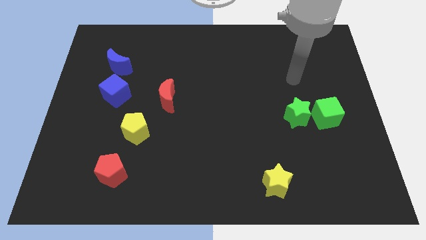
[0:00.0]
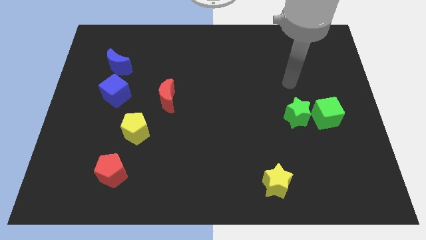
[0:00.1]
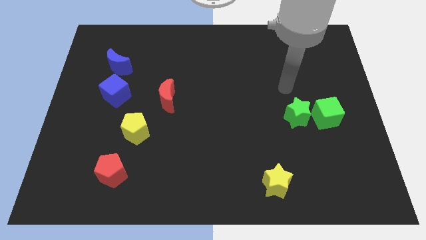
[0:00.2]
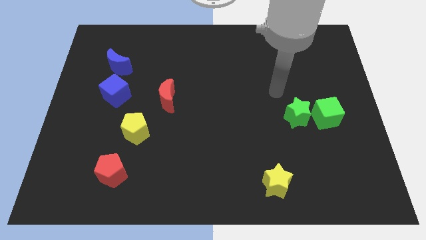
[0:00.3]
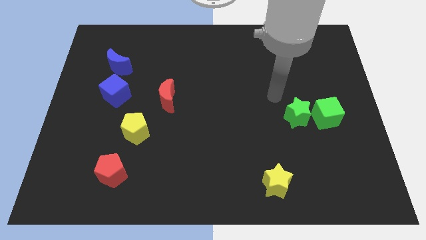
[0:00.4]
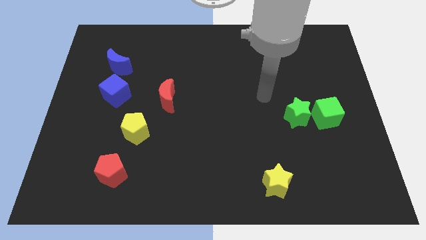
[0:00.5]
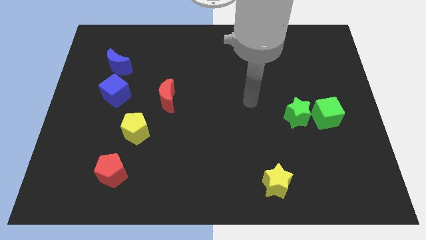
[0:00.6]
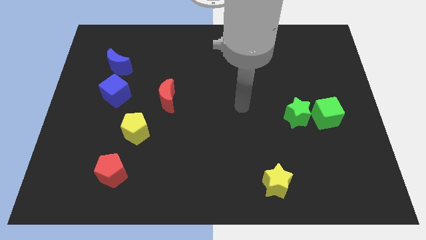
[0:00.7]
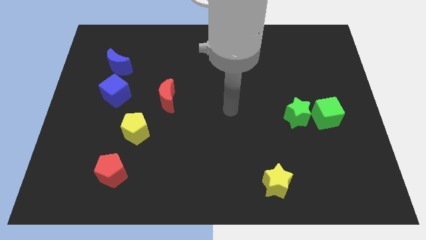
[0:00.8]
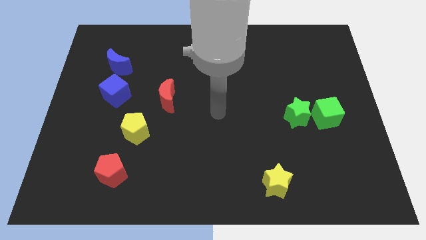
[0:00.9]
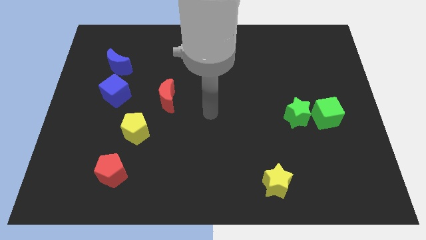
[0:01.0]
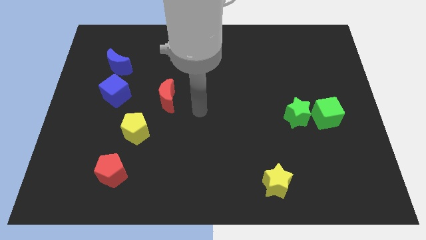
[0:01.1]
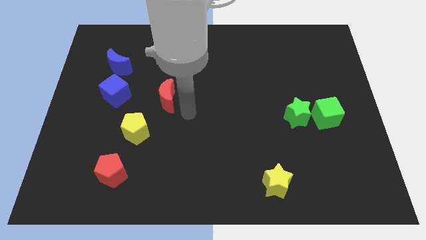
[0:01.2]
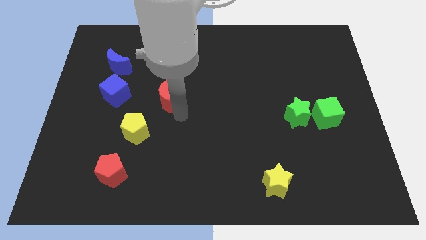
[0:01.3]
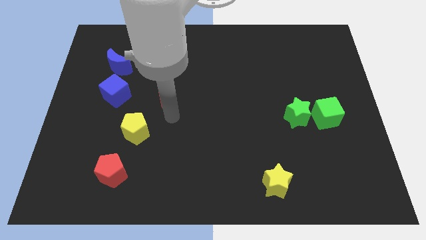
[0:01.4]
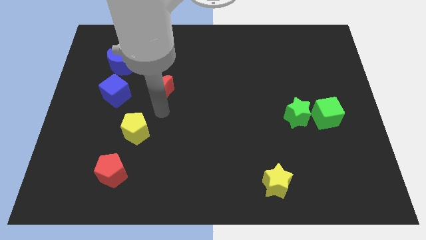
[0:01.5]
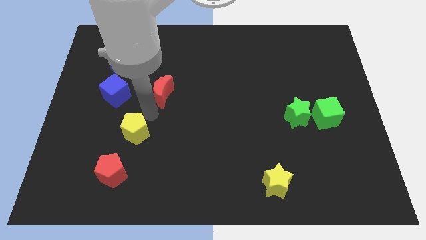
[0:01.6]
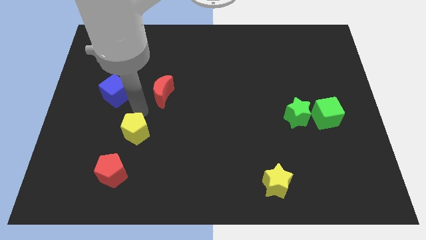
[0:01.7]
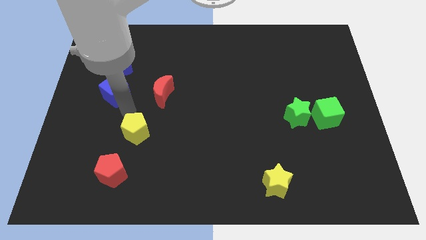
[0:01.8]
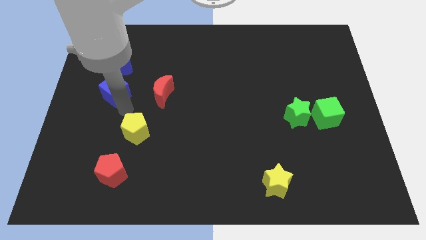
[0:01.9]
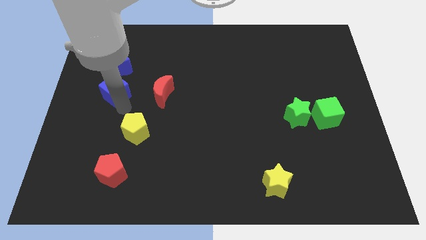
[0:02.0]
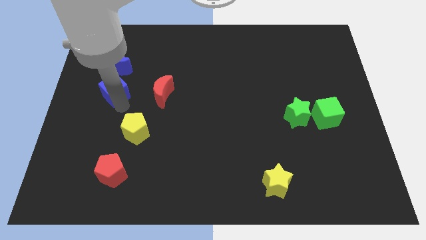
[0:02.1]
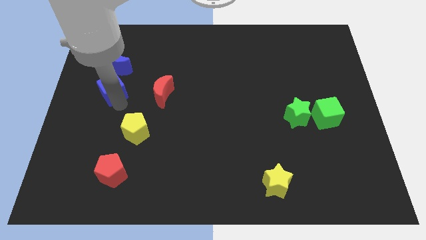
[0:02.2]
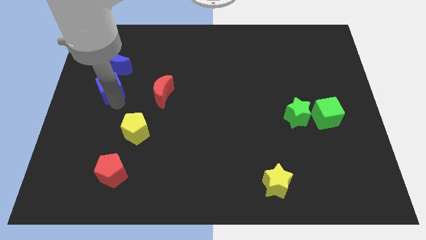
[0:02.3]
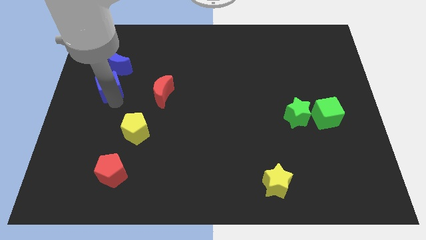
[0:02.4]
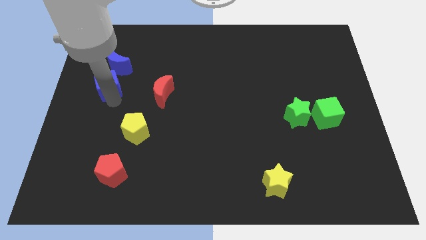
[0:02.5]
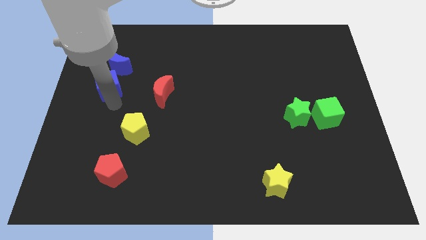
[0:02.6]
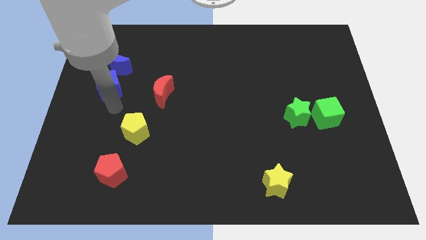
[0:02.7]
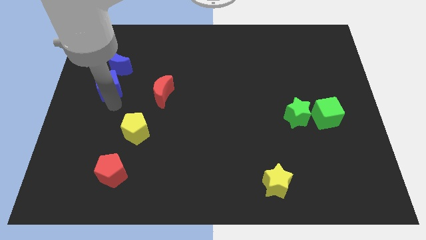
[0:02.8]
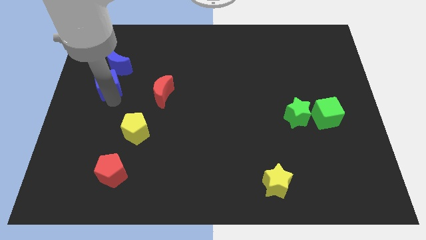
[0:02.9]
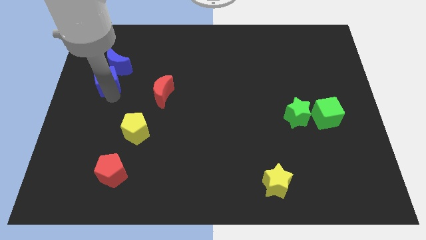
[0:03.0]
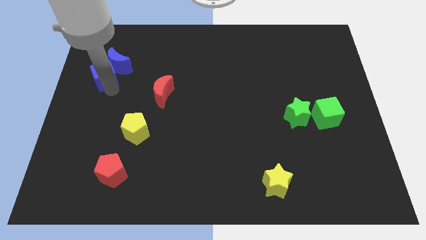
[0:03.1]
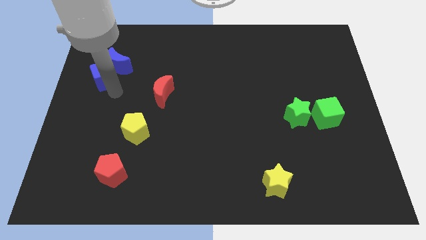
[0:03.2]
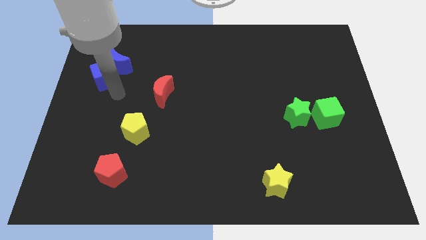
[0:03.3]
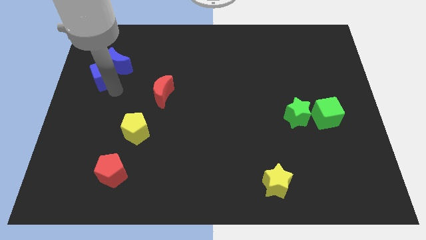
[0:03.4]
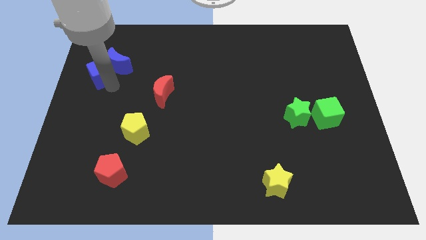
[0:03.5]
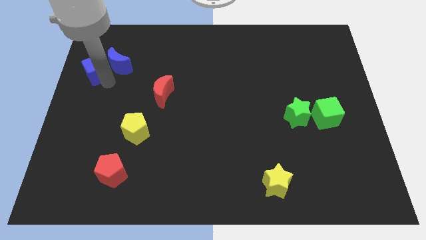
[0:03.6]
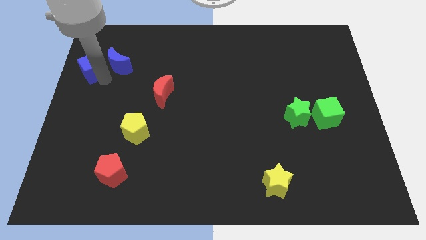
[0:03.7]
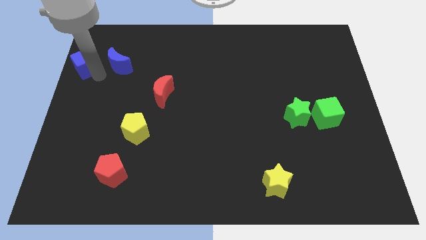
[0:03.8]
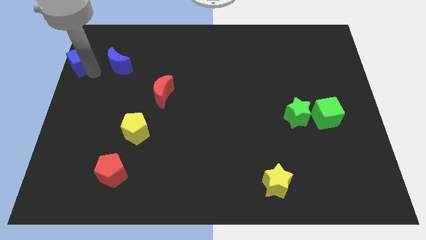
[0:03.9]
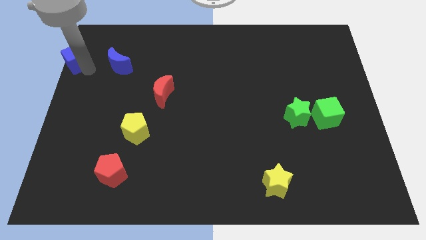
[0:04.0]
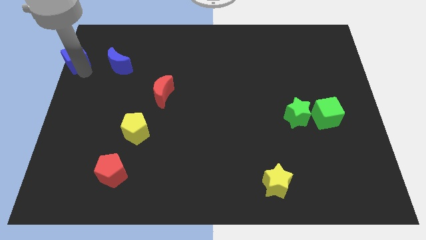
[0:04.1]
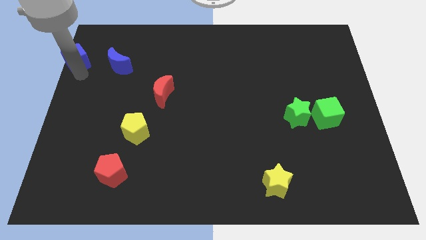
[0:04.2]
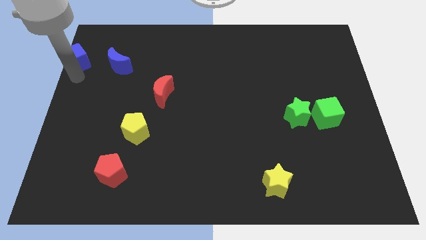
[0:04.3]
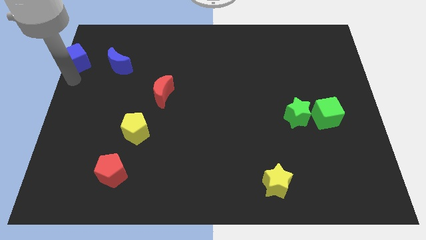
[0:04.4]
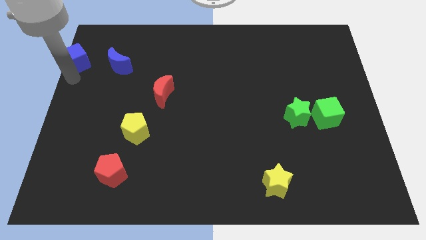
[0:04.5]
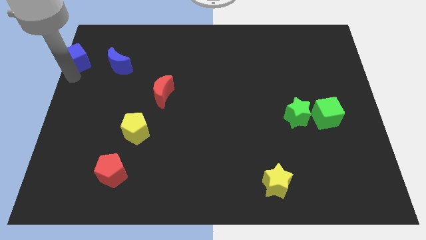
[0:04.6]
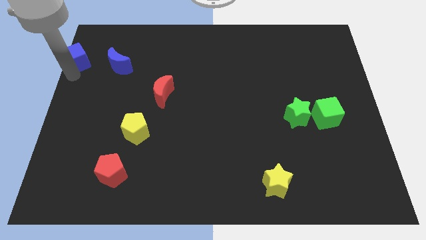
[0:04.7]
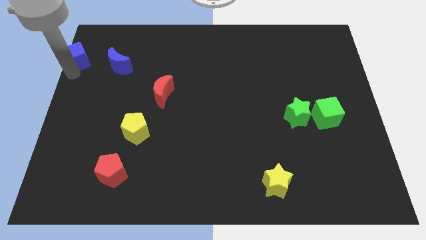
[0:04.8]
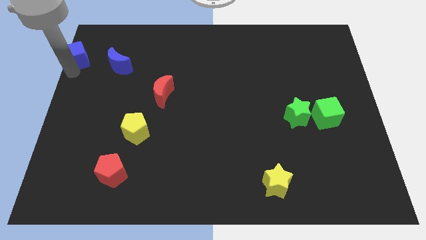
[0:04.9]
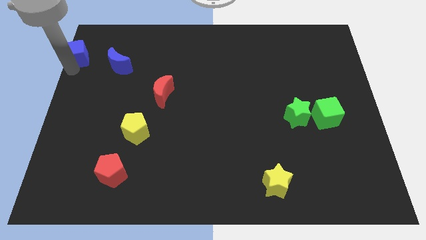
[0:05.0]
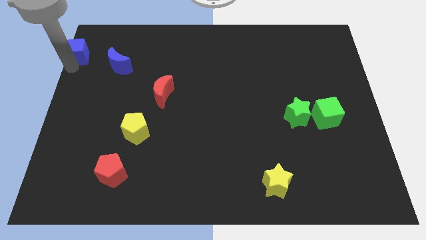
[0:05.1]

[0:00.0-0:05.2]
move the blue cube to the upper left corner

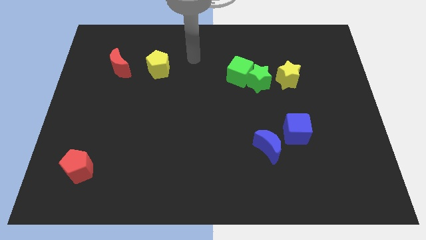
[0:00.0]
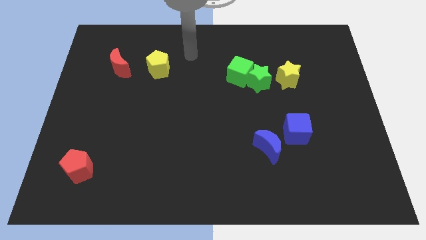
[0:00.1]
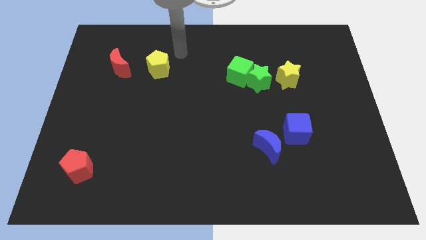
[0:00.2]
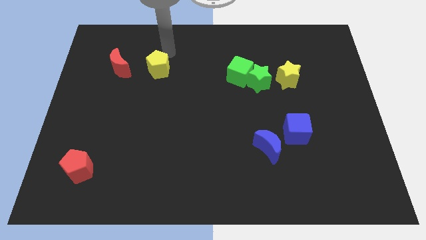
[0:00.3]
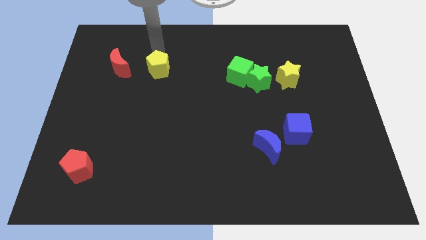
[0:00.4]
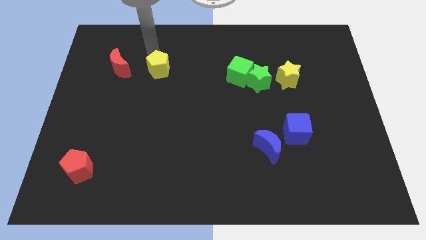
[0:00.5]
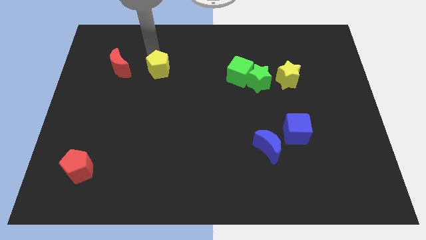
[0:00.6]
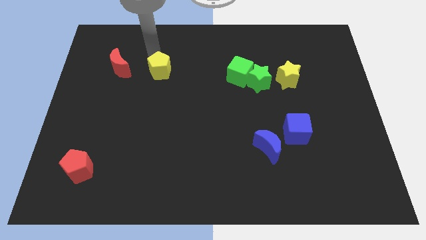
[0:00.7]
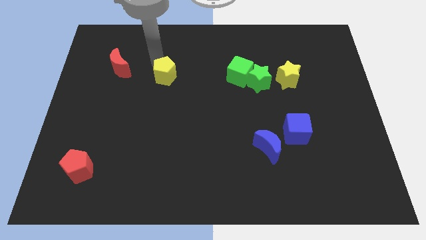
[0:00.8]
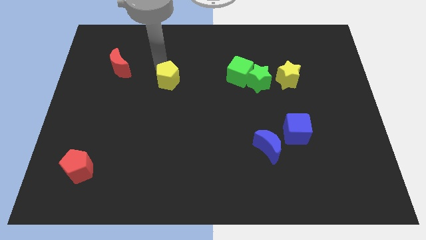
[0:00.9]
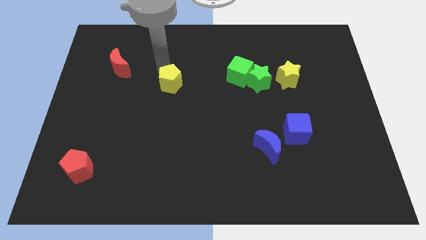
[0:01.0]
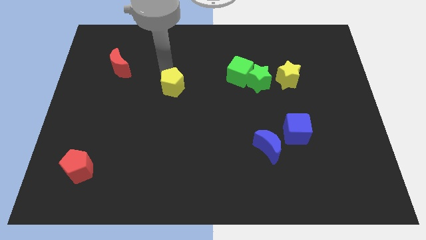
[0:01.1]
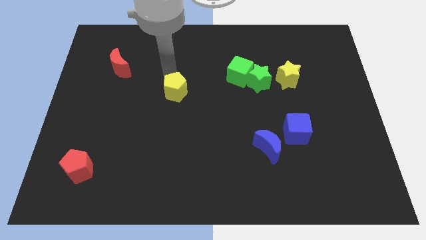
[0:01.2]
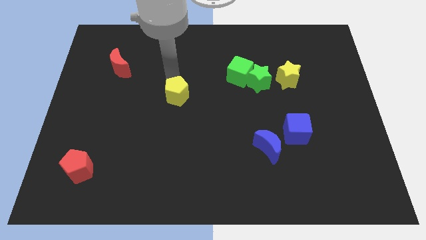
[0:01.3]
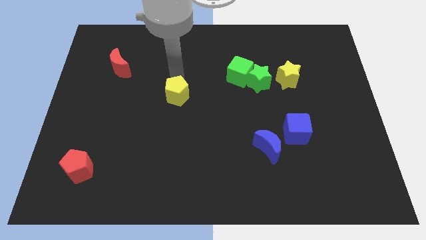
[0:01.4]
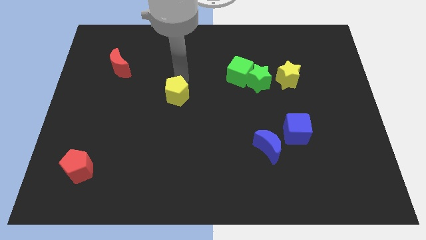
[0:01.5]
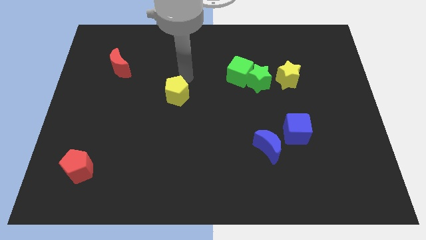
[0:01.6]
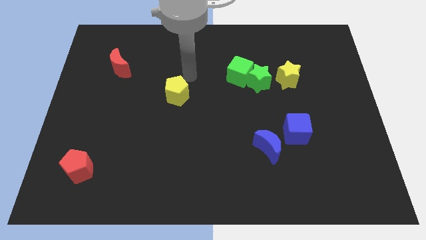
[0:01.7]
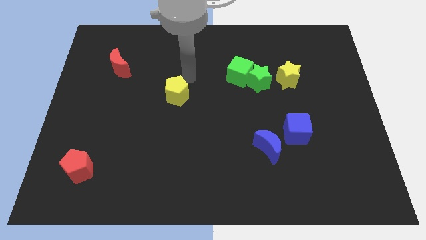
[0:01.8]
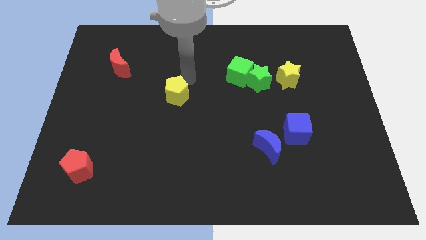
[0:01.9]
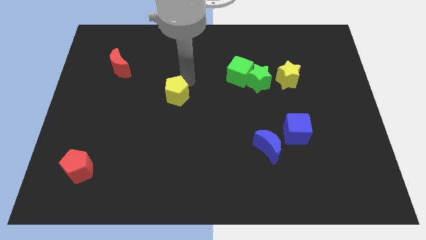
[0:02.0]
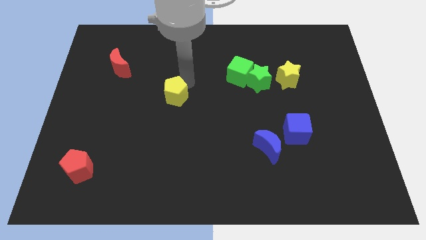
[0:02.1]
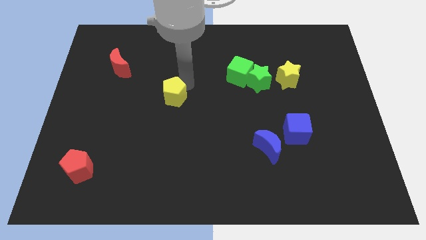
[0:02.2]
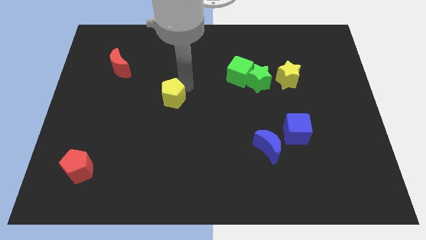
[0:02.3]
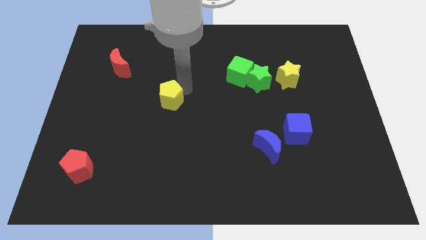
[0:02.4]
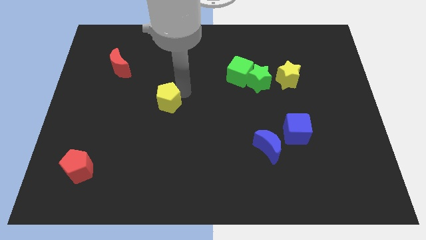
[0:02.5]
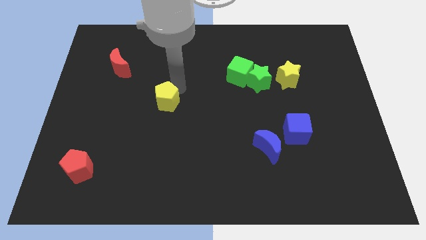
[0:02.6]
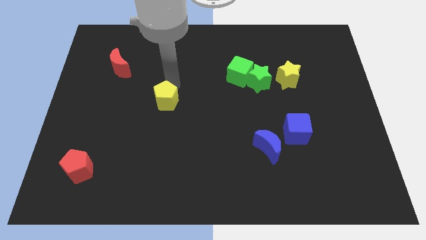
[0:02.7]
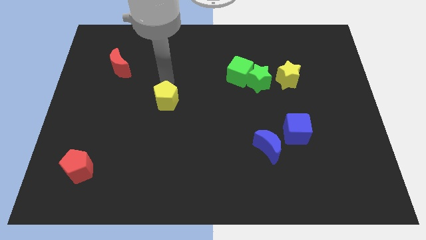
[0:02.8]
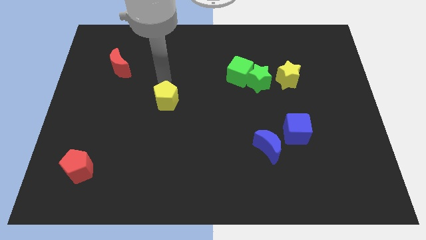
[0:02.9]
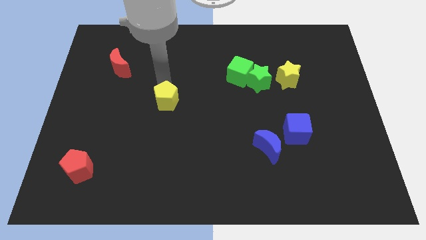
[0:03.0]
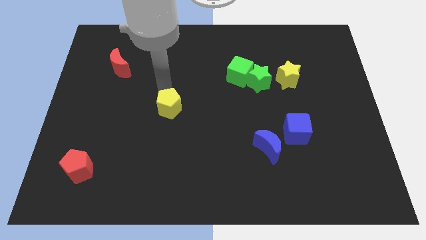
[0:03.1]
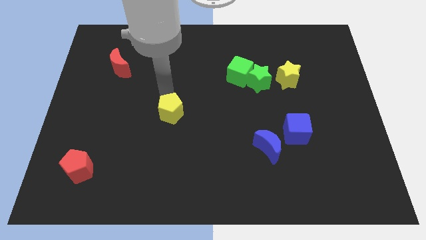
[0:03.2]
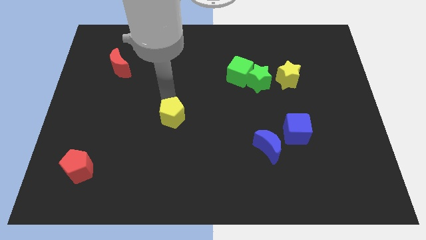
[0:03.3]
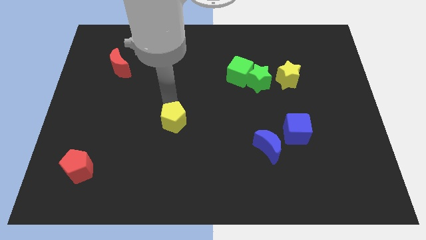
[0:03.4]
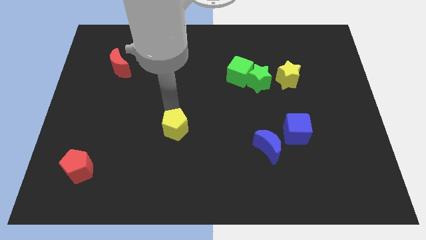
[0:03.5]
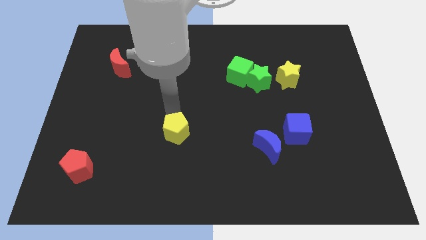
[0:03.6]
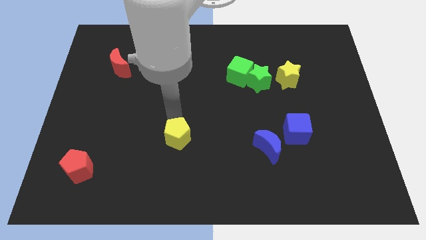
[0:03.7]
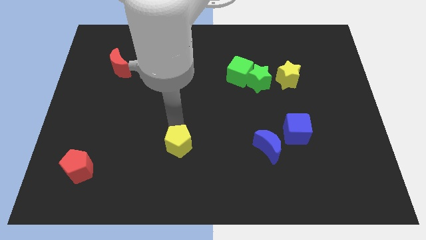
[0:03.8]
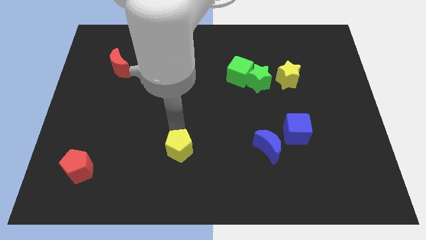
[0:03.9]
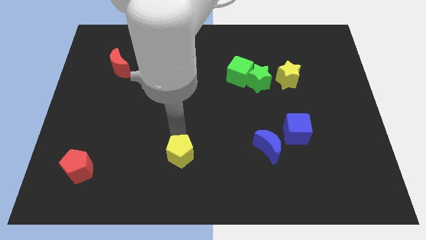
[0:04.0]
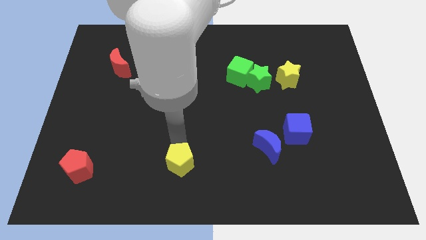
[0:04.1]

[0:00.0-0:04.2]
push the yellow pentagon to the bottom side
